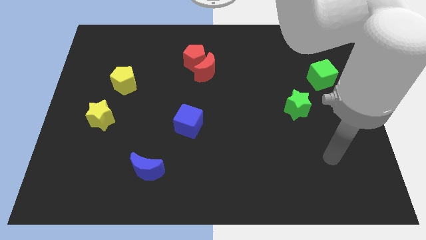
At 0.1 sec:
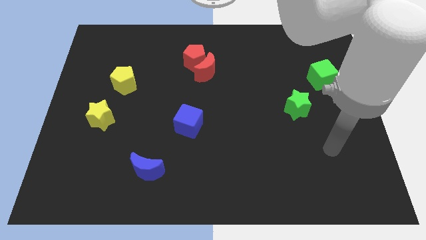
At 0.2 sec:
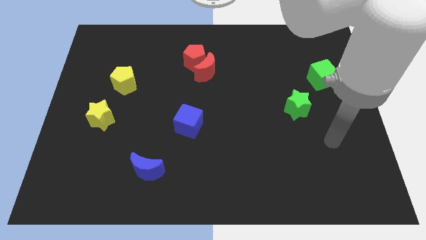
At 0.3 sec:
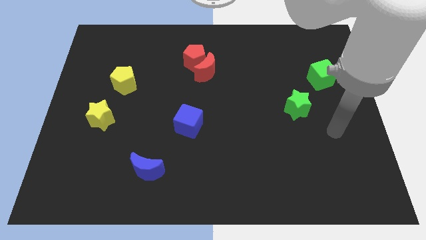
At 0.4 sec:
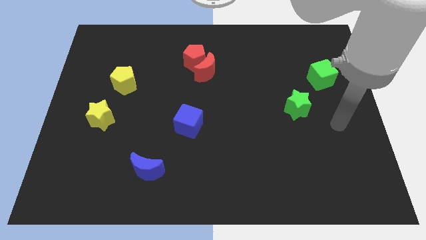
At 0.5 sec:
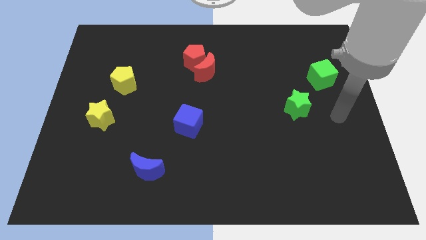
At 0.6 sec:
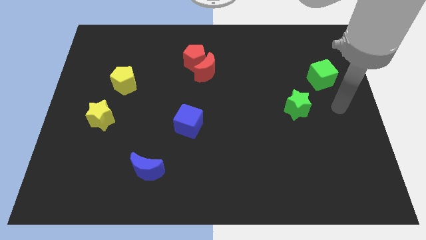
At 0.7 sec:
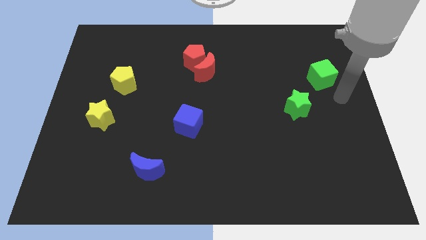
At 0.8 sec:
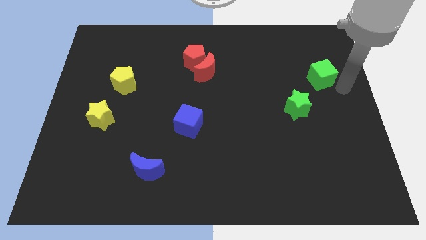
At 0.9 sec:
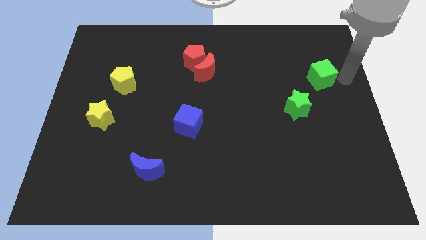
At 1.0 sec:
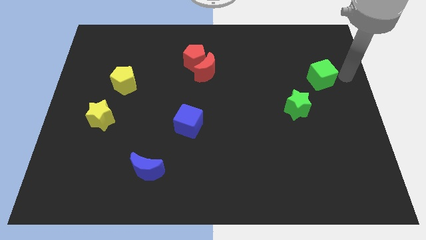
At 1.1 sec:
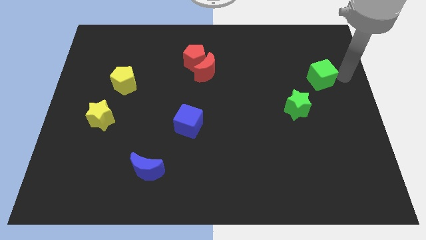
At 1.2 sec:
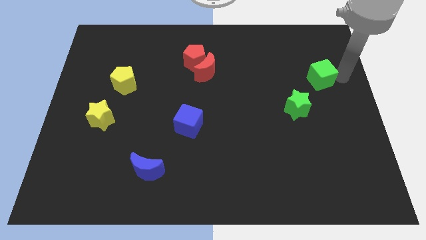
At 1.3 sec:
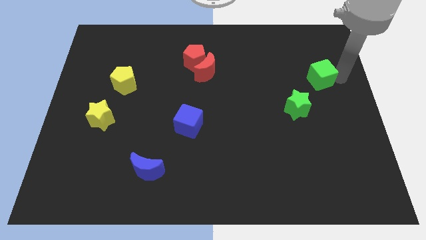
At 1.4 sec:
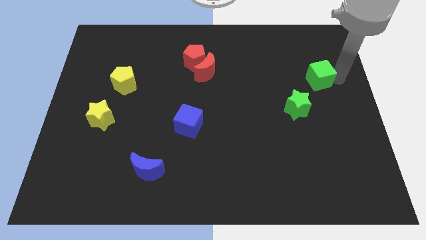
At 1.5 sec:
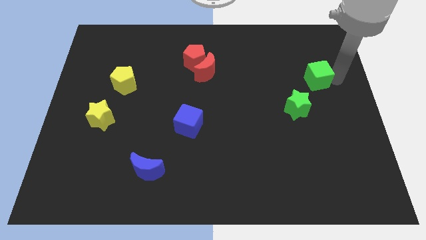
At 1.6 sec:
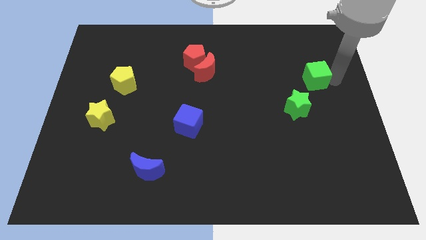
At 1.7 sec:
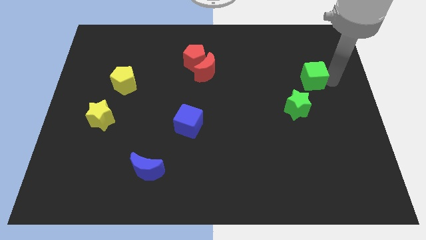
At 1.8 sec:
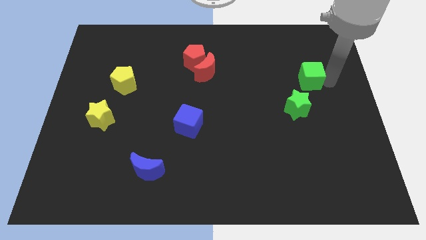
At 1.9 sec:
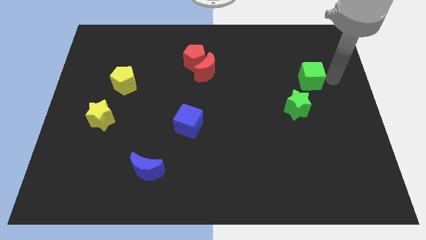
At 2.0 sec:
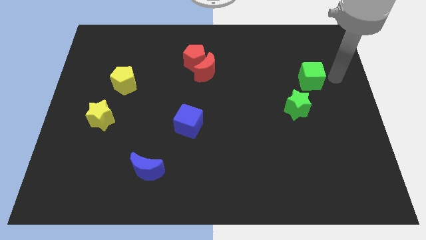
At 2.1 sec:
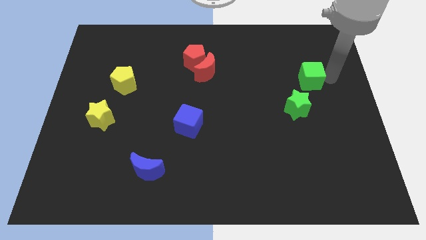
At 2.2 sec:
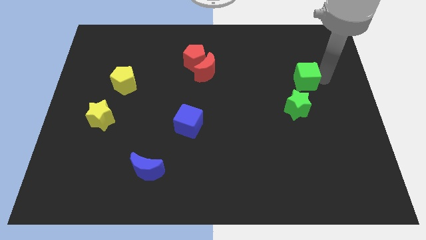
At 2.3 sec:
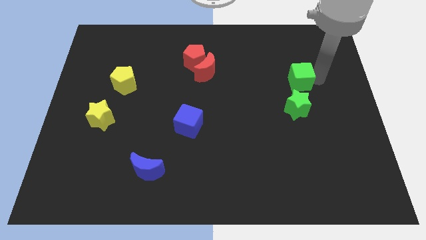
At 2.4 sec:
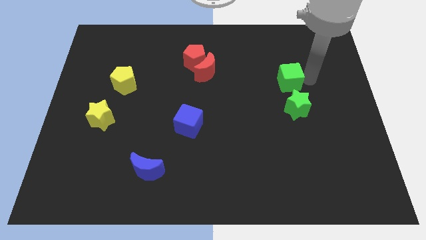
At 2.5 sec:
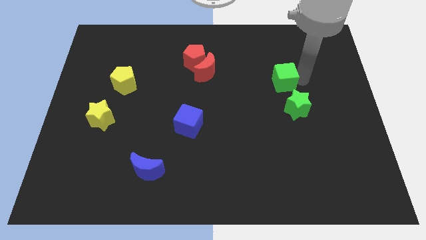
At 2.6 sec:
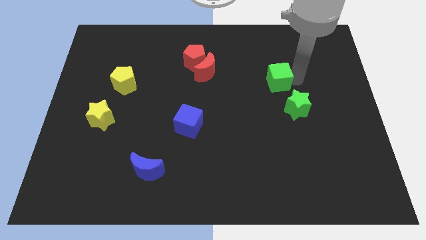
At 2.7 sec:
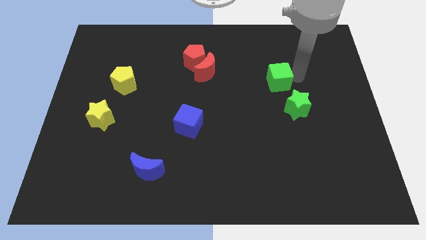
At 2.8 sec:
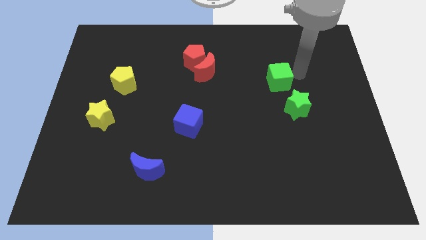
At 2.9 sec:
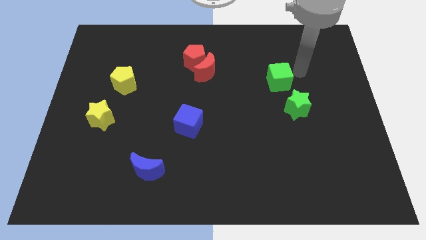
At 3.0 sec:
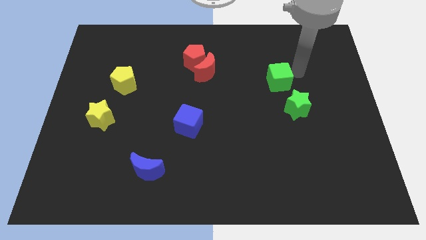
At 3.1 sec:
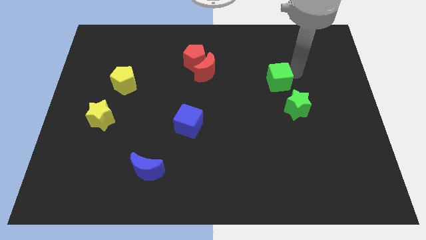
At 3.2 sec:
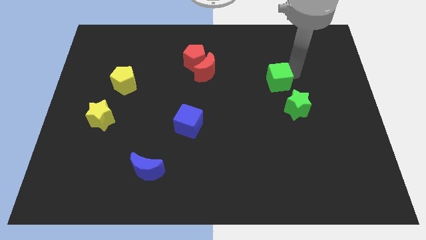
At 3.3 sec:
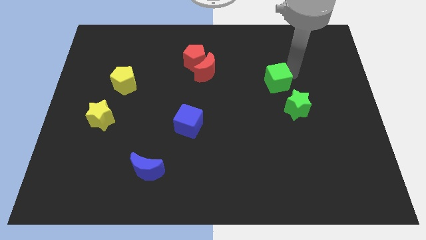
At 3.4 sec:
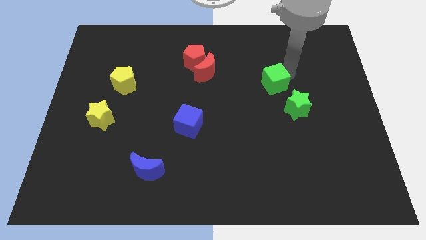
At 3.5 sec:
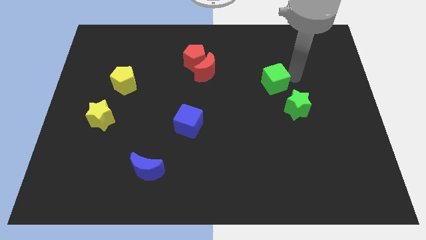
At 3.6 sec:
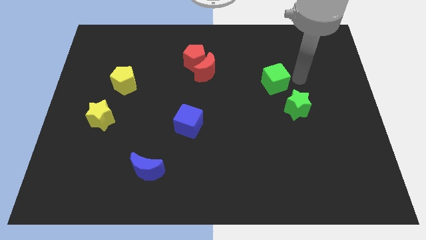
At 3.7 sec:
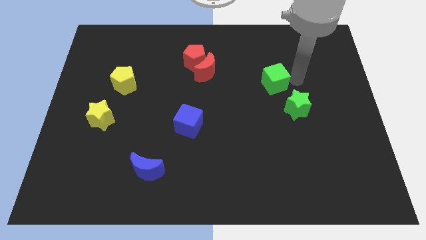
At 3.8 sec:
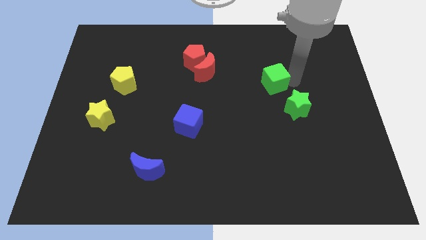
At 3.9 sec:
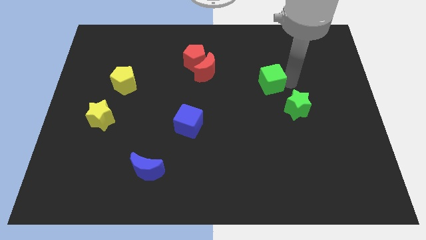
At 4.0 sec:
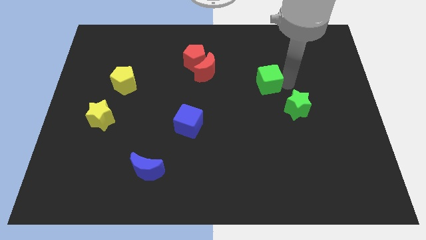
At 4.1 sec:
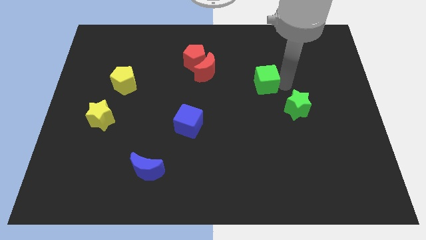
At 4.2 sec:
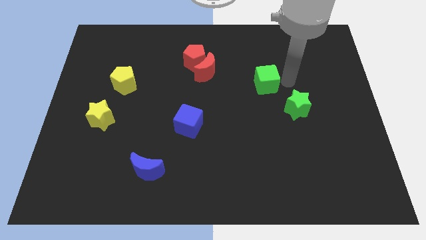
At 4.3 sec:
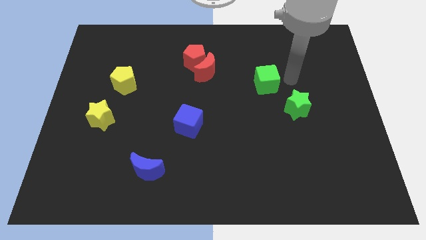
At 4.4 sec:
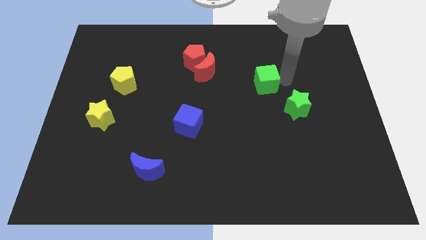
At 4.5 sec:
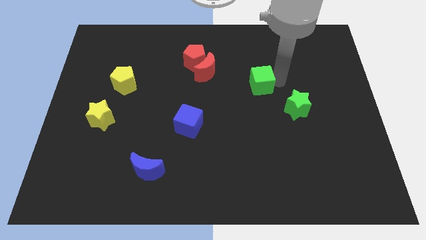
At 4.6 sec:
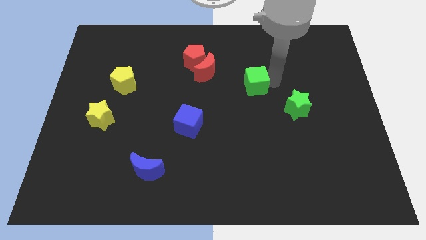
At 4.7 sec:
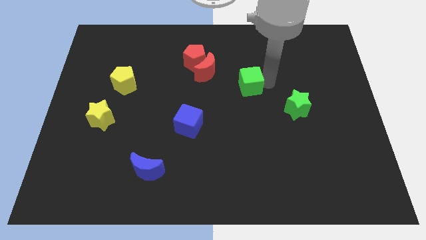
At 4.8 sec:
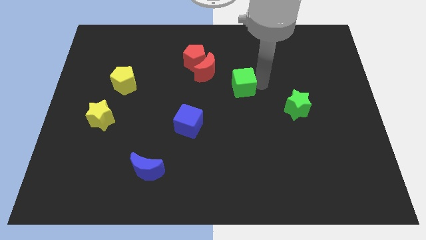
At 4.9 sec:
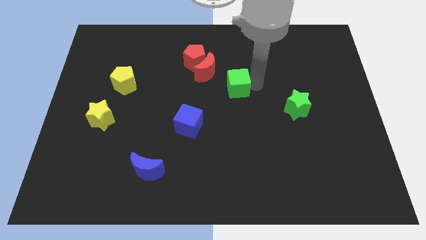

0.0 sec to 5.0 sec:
slide the green cube left

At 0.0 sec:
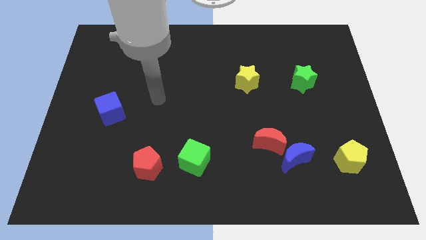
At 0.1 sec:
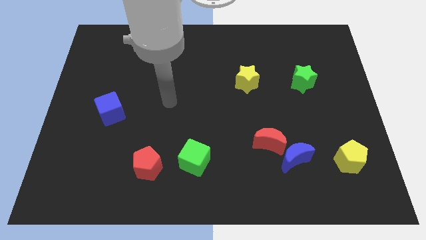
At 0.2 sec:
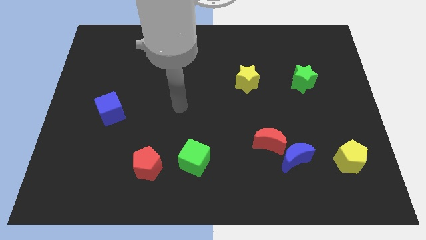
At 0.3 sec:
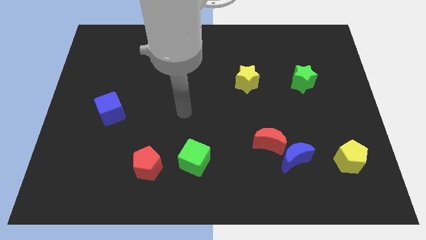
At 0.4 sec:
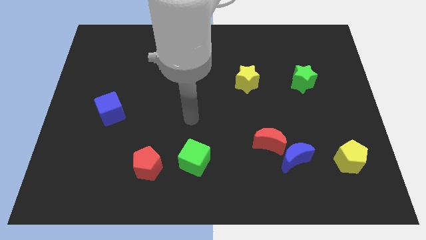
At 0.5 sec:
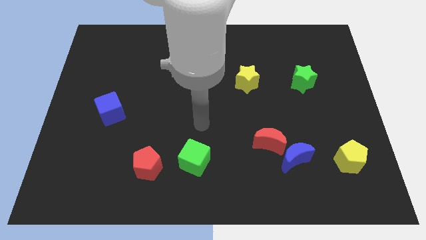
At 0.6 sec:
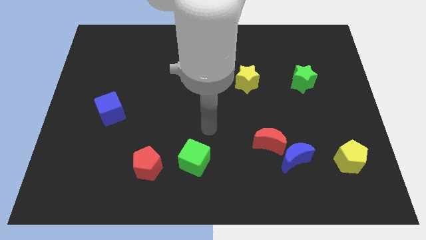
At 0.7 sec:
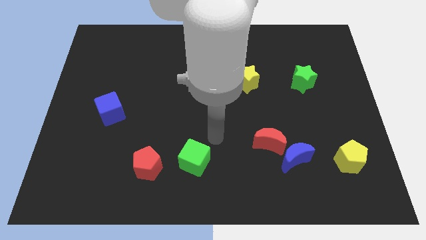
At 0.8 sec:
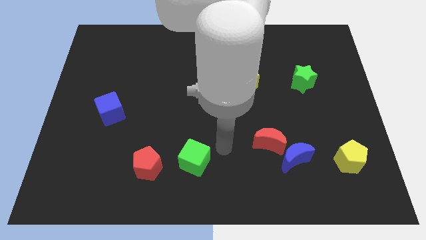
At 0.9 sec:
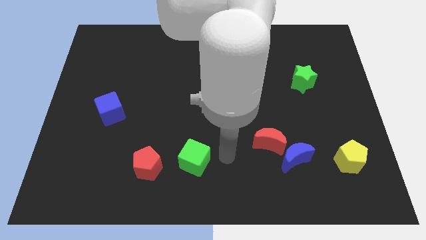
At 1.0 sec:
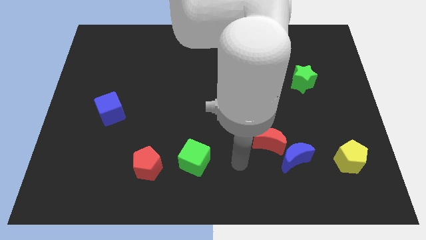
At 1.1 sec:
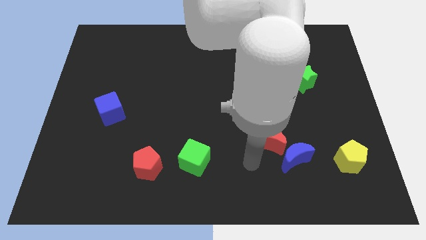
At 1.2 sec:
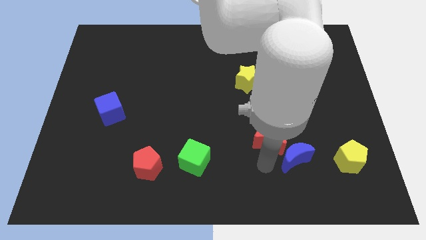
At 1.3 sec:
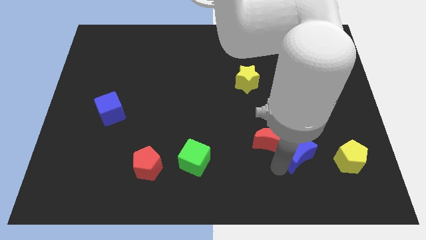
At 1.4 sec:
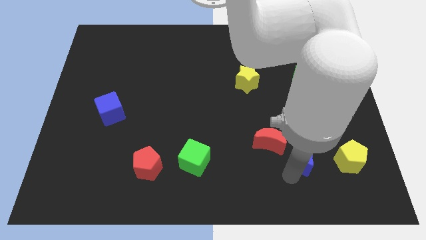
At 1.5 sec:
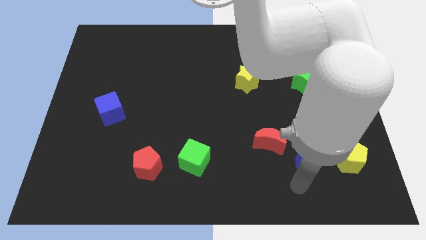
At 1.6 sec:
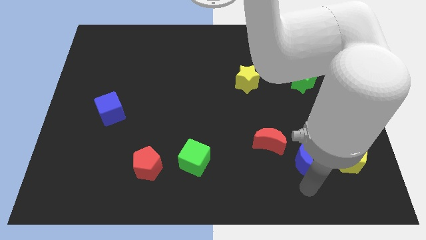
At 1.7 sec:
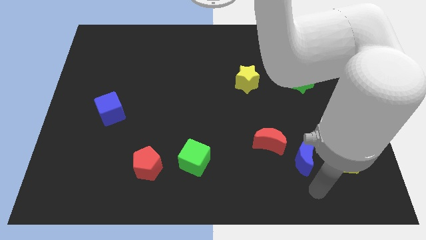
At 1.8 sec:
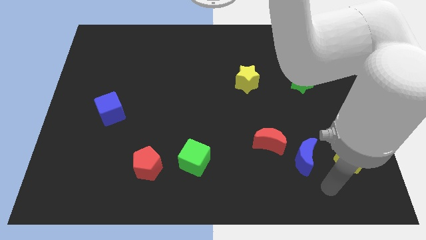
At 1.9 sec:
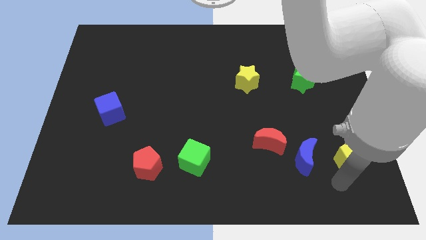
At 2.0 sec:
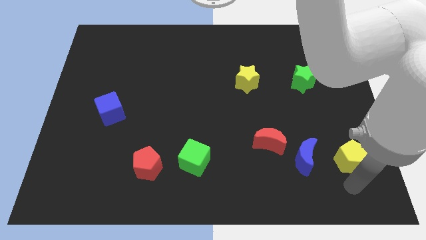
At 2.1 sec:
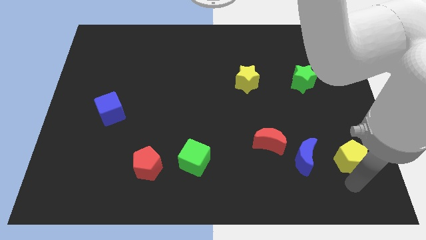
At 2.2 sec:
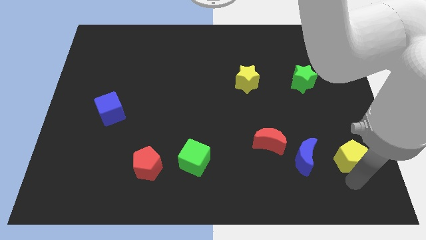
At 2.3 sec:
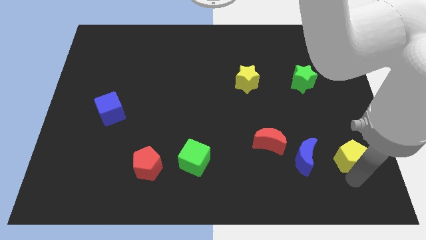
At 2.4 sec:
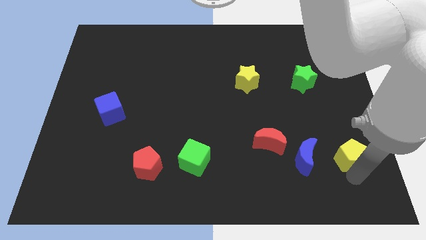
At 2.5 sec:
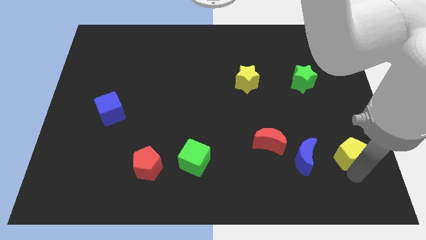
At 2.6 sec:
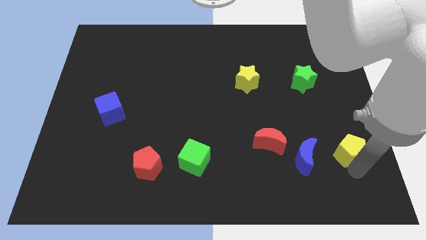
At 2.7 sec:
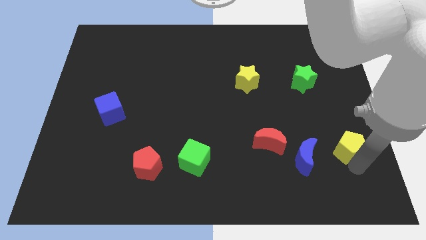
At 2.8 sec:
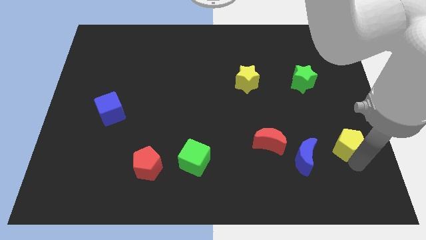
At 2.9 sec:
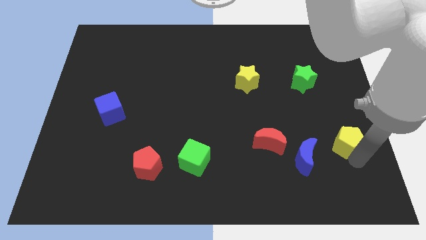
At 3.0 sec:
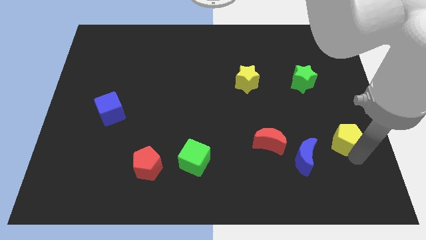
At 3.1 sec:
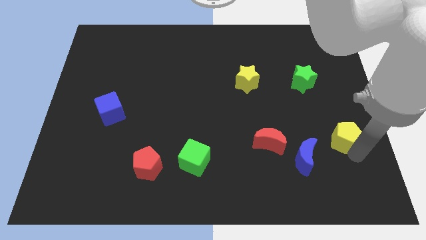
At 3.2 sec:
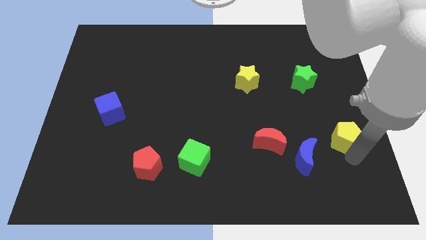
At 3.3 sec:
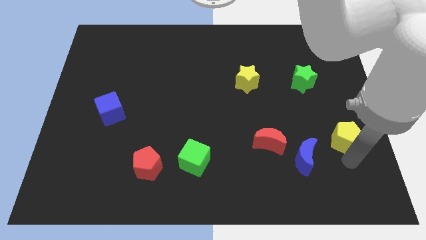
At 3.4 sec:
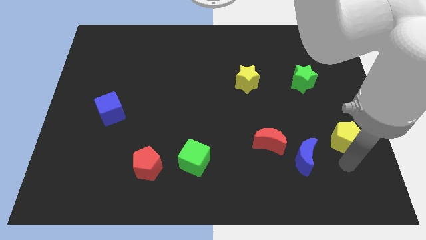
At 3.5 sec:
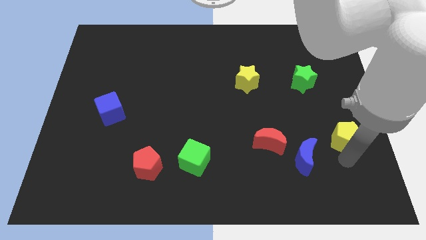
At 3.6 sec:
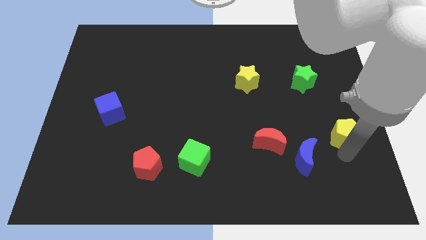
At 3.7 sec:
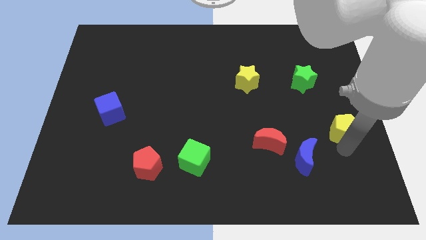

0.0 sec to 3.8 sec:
slightly slide the yellow pentagon up
